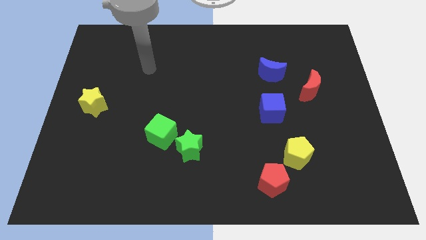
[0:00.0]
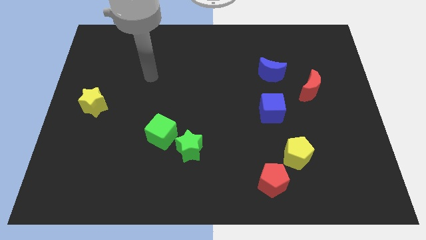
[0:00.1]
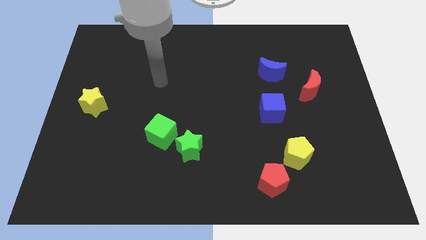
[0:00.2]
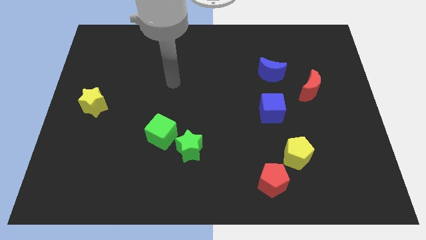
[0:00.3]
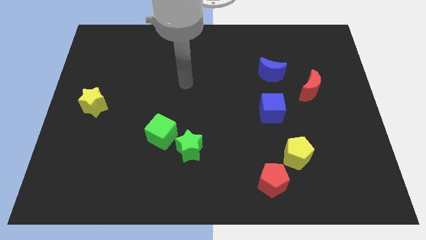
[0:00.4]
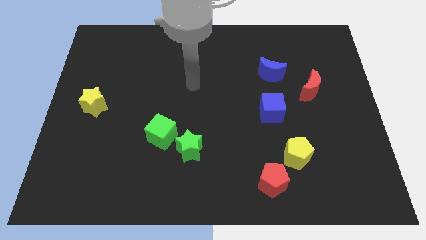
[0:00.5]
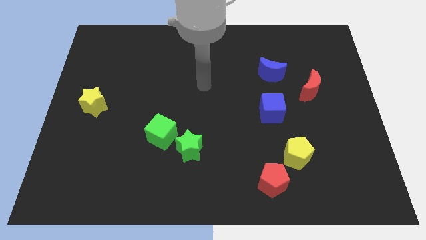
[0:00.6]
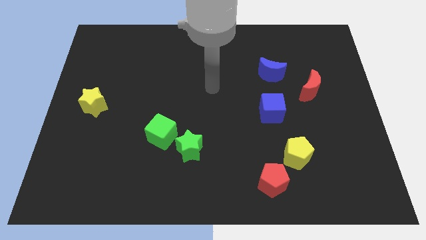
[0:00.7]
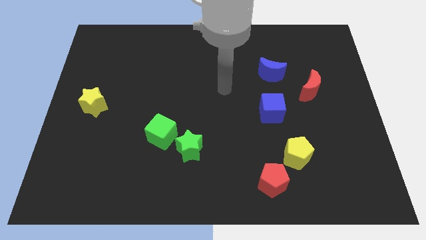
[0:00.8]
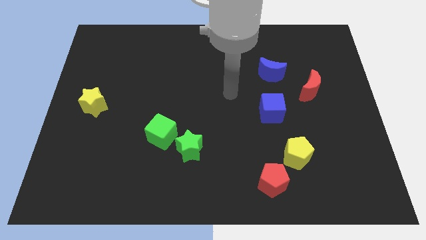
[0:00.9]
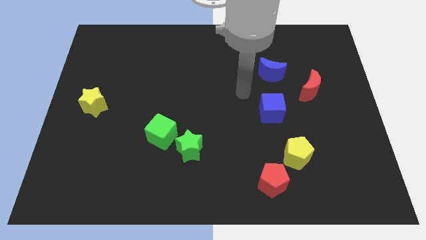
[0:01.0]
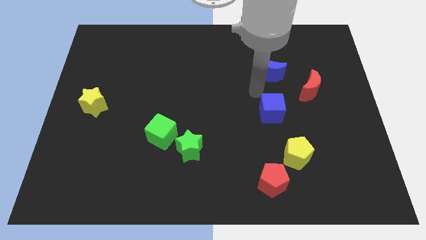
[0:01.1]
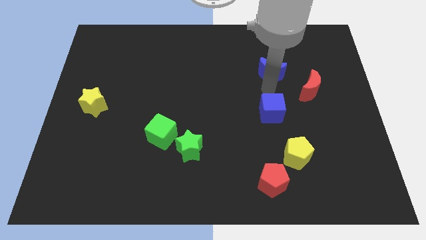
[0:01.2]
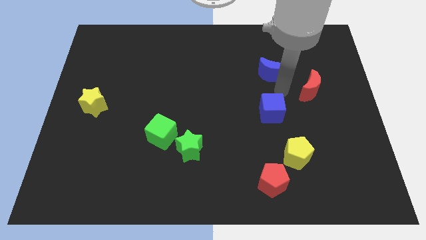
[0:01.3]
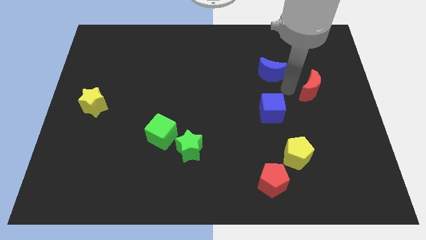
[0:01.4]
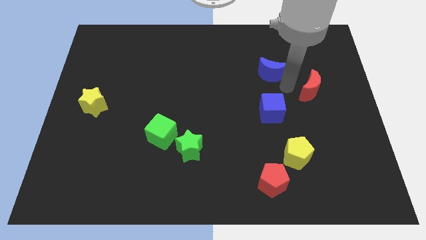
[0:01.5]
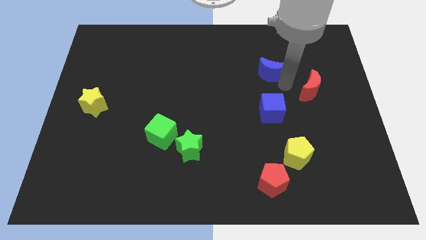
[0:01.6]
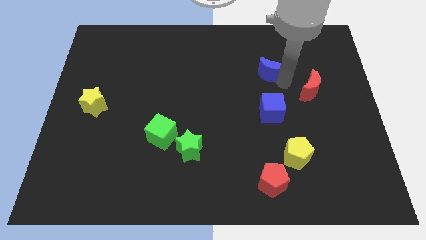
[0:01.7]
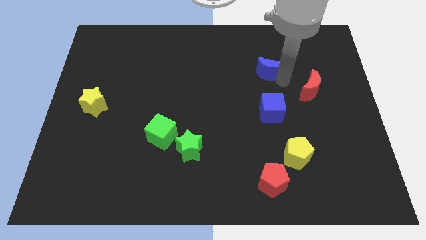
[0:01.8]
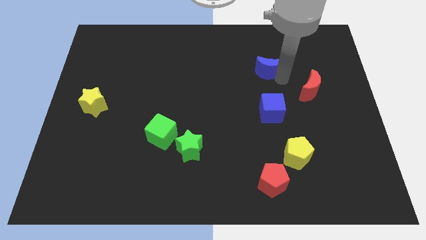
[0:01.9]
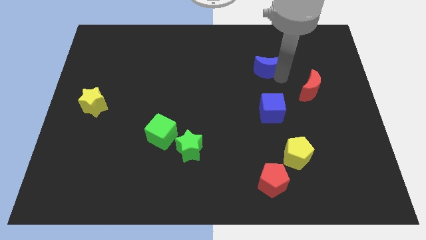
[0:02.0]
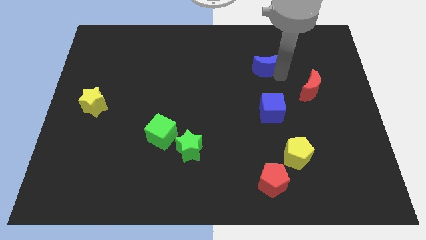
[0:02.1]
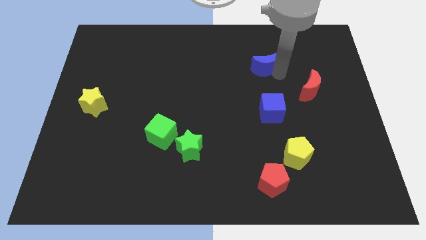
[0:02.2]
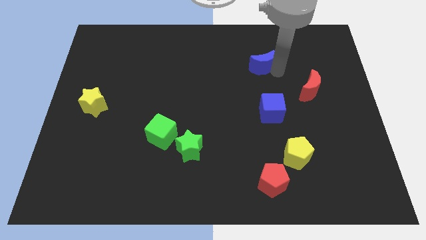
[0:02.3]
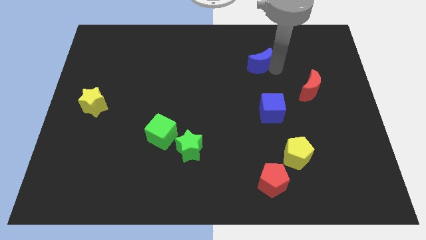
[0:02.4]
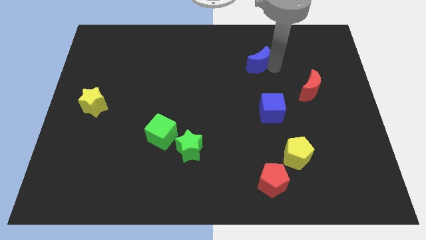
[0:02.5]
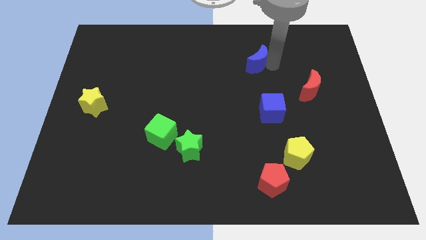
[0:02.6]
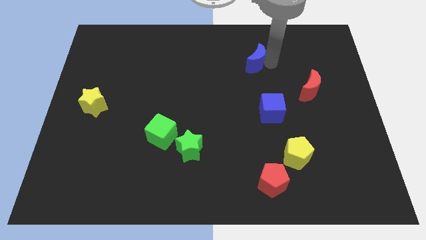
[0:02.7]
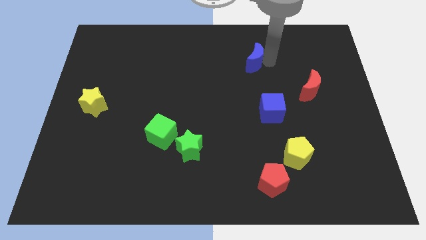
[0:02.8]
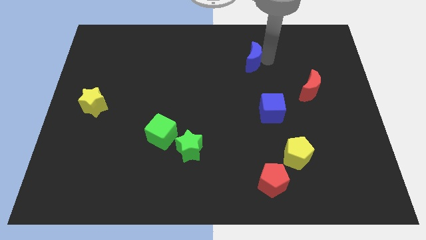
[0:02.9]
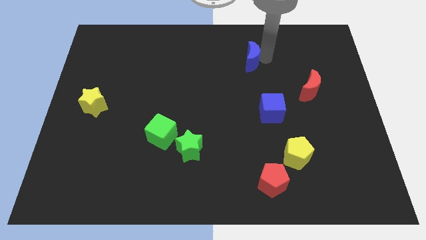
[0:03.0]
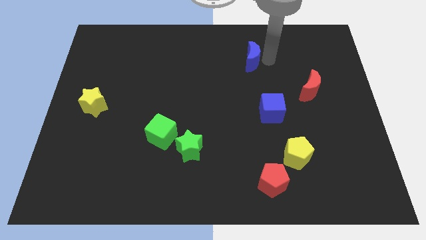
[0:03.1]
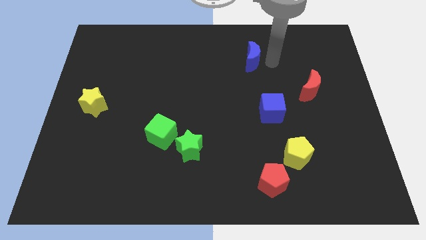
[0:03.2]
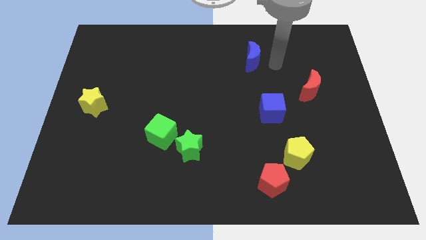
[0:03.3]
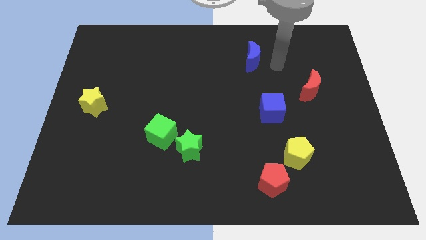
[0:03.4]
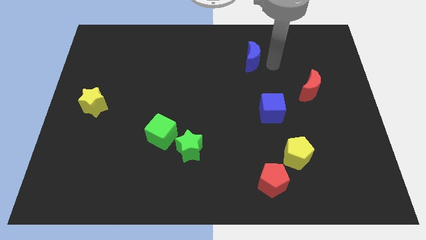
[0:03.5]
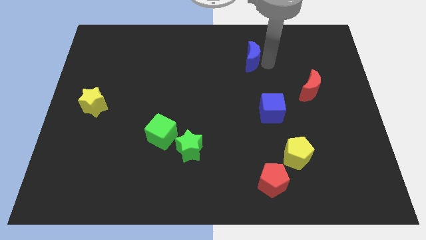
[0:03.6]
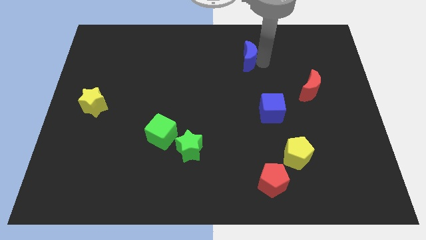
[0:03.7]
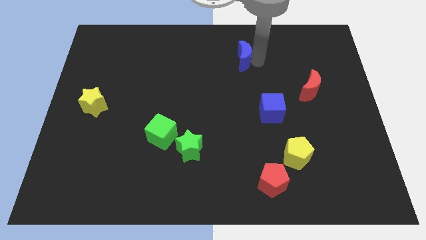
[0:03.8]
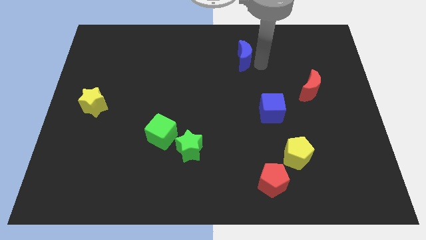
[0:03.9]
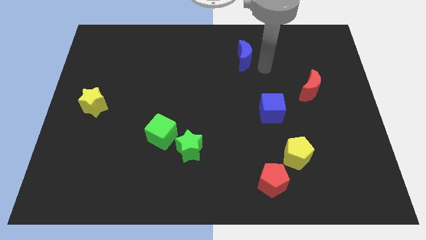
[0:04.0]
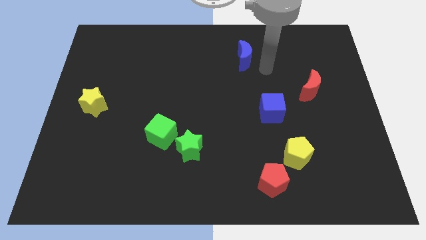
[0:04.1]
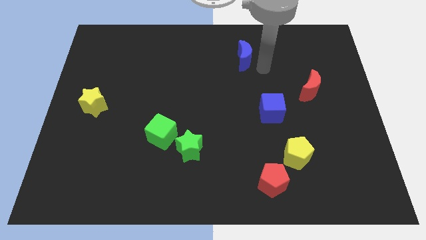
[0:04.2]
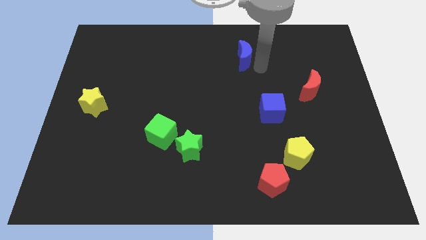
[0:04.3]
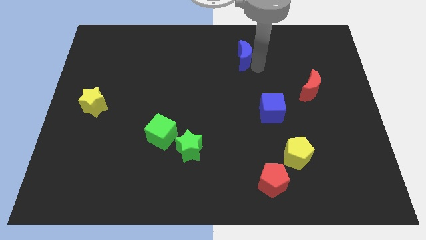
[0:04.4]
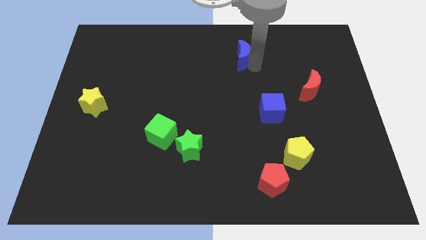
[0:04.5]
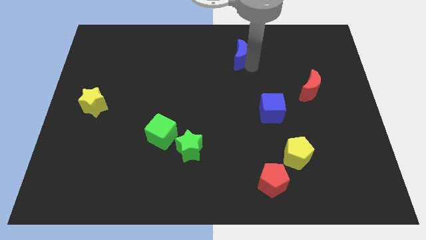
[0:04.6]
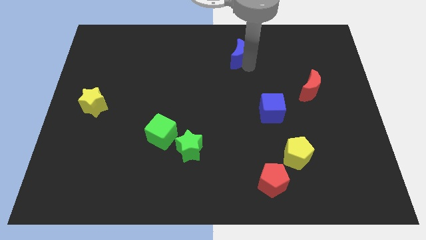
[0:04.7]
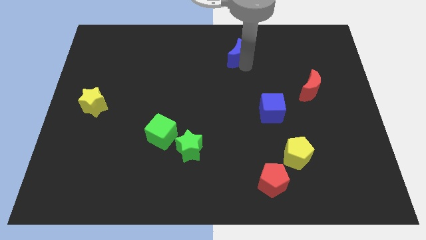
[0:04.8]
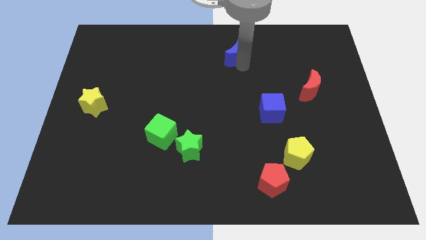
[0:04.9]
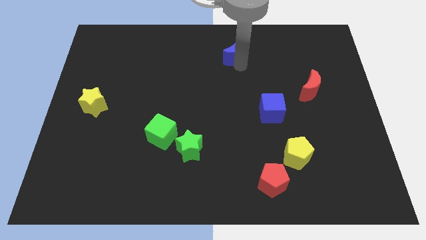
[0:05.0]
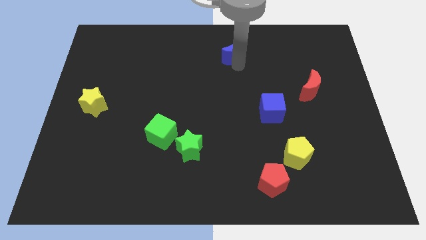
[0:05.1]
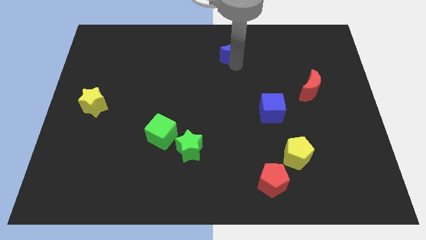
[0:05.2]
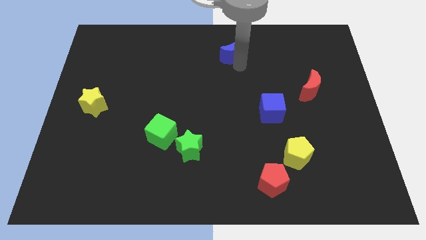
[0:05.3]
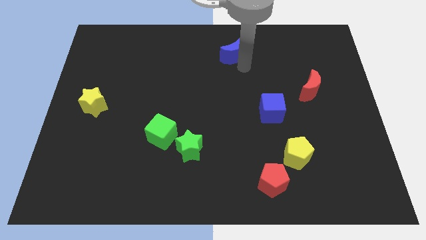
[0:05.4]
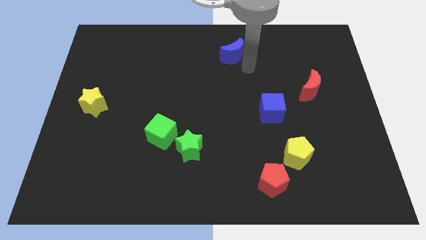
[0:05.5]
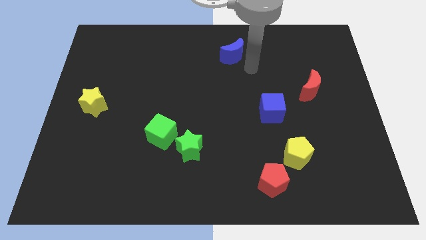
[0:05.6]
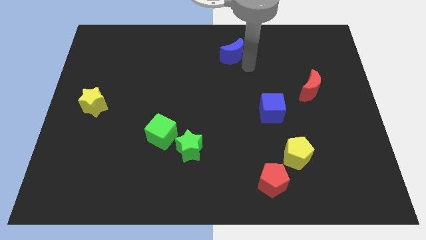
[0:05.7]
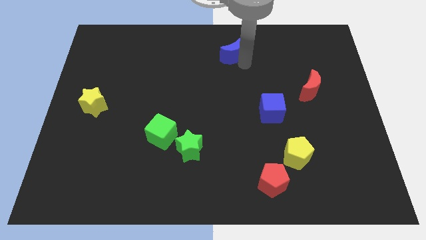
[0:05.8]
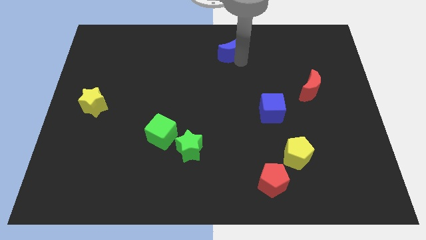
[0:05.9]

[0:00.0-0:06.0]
slide the blue moon to the top side
